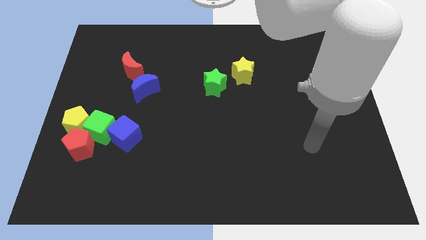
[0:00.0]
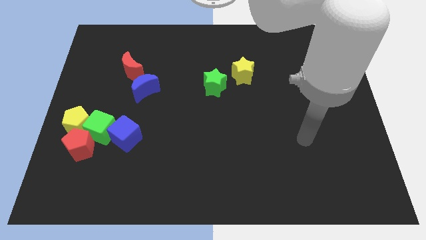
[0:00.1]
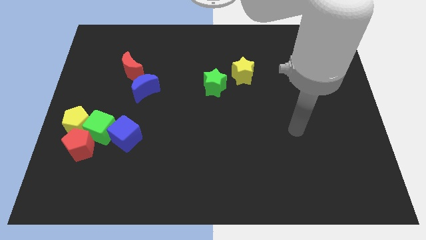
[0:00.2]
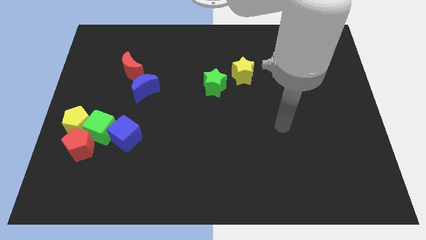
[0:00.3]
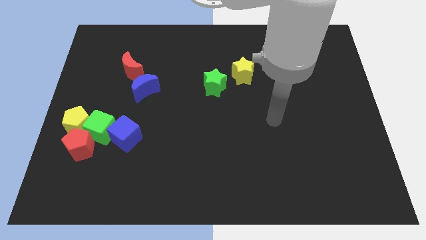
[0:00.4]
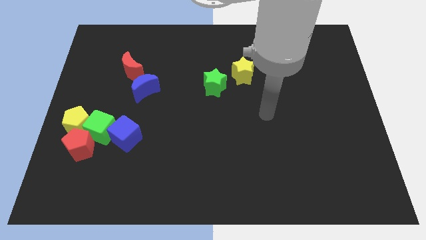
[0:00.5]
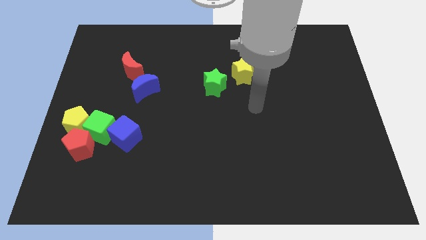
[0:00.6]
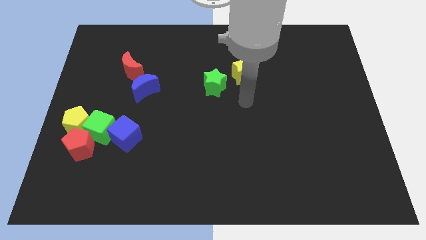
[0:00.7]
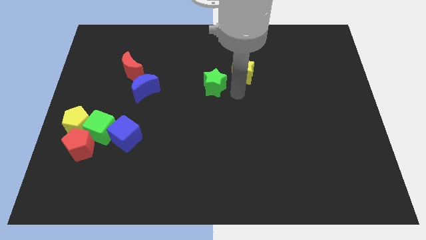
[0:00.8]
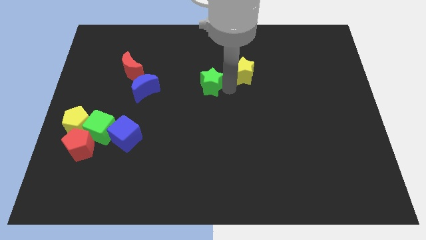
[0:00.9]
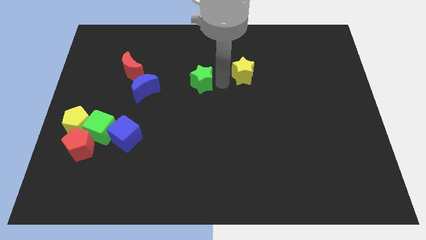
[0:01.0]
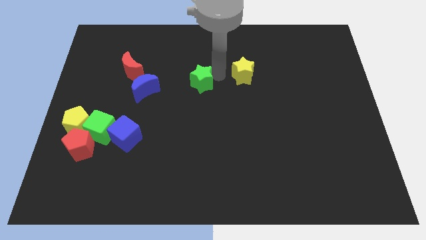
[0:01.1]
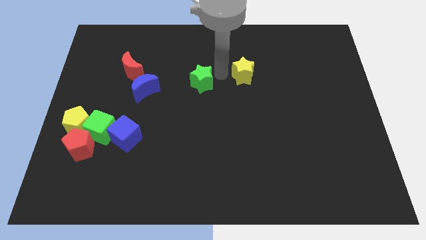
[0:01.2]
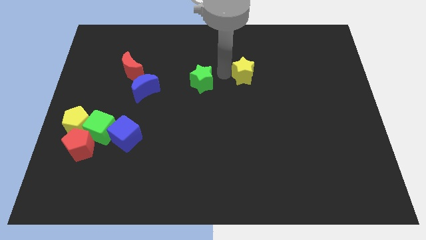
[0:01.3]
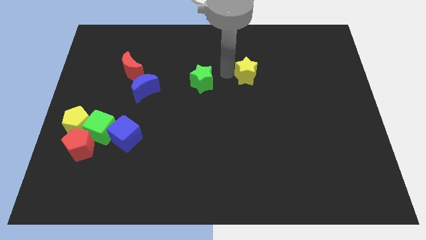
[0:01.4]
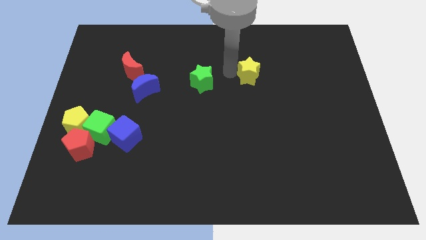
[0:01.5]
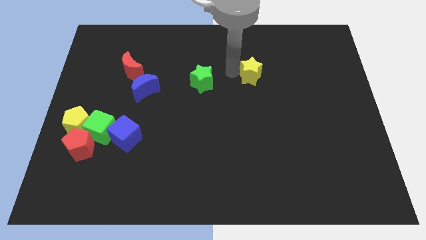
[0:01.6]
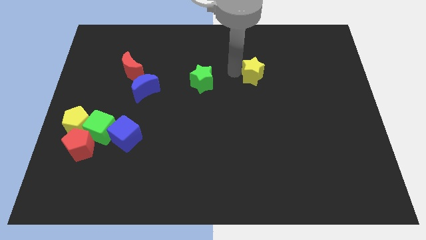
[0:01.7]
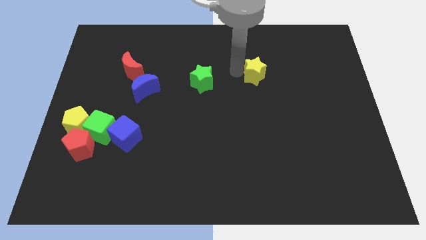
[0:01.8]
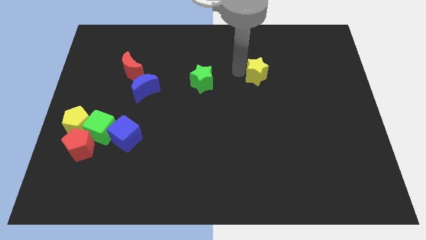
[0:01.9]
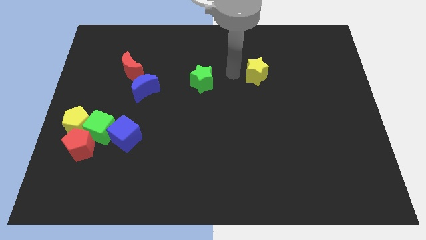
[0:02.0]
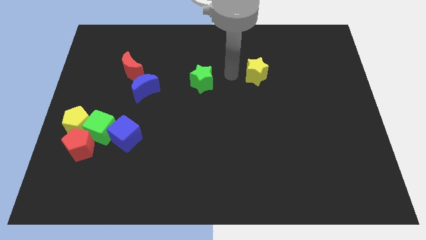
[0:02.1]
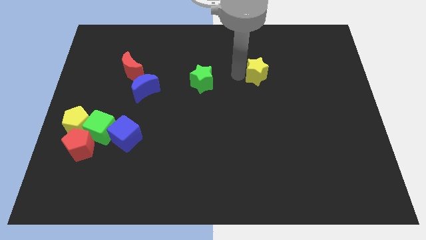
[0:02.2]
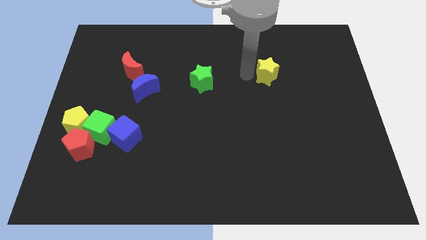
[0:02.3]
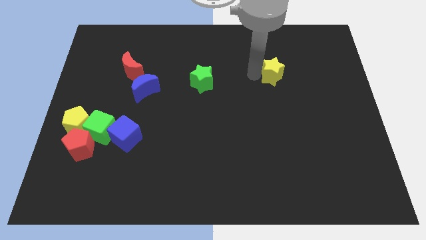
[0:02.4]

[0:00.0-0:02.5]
push the yellow star slightly to the right

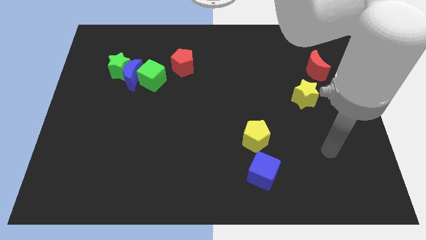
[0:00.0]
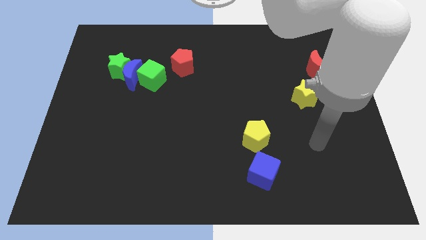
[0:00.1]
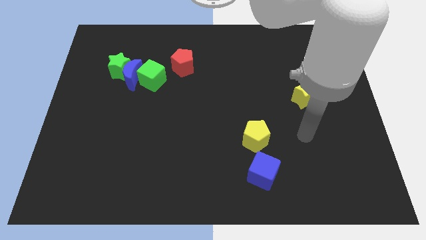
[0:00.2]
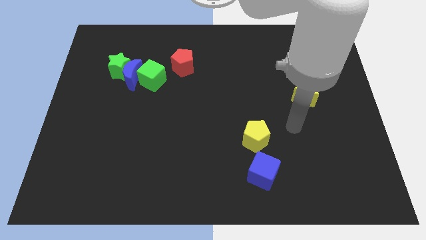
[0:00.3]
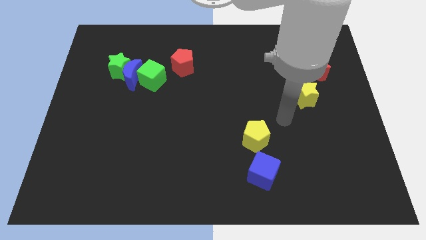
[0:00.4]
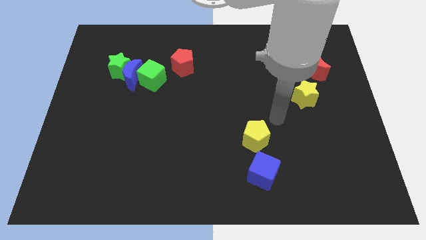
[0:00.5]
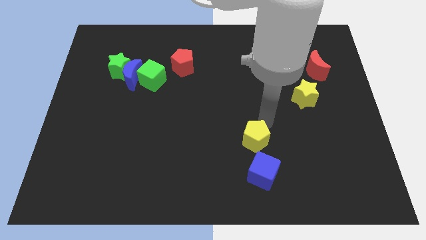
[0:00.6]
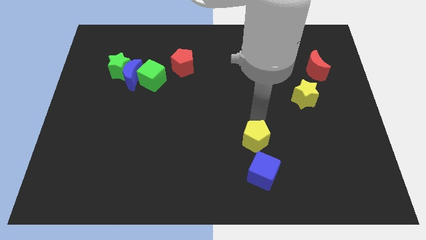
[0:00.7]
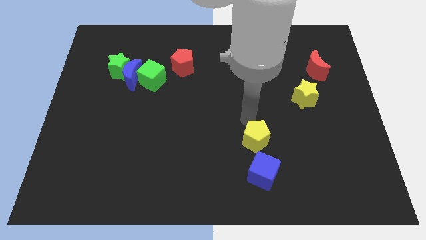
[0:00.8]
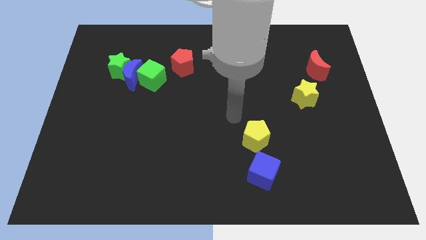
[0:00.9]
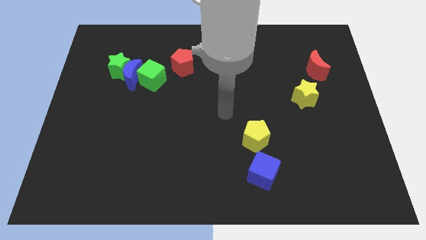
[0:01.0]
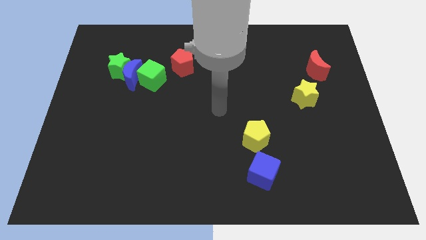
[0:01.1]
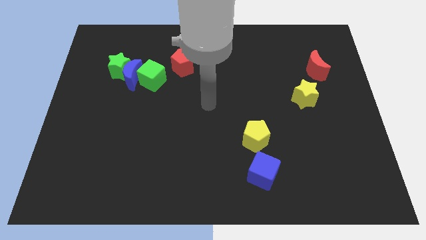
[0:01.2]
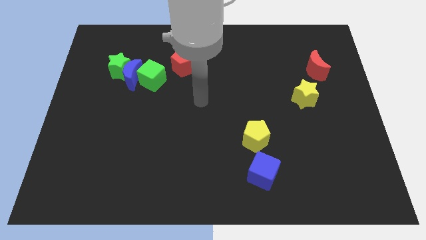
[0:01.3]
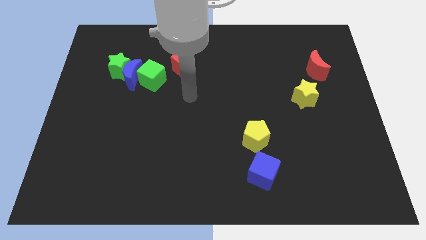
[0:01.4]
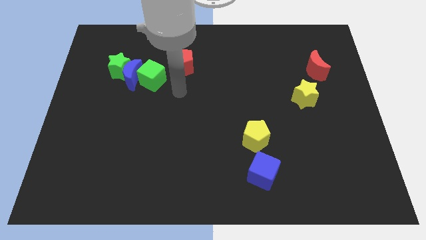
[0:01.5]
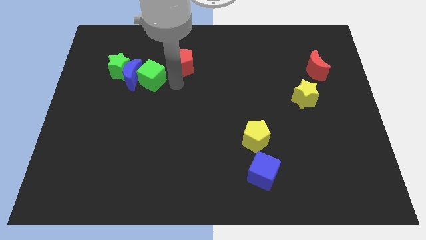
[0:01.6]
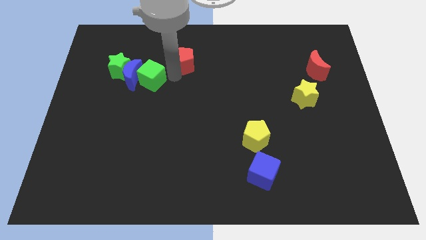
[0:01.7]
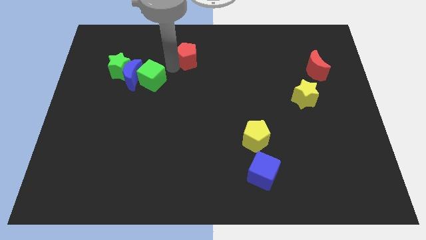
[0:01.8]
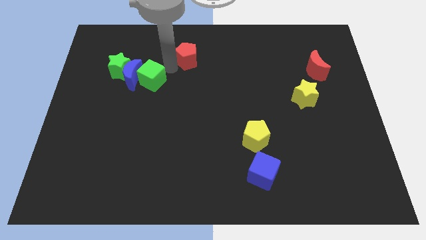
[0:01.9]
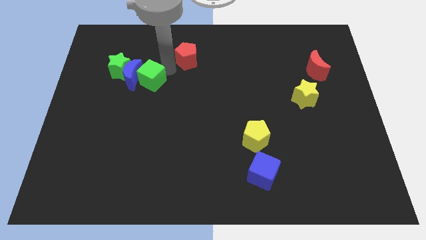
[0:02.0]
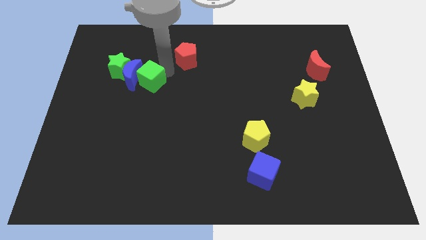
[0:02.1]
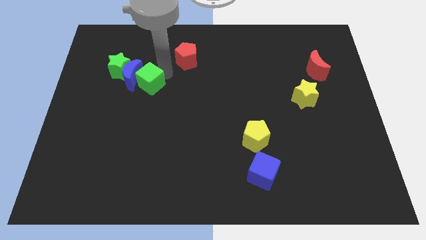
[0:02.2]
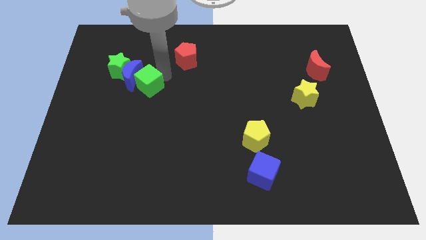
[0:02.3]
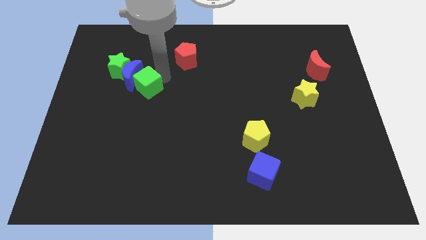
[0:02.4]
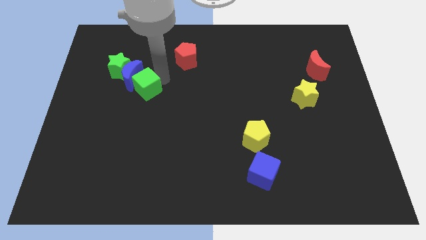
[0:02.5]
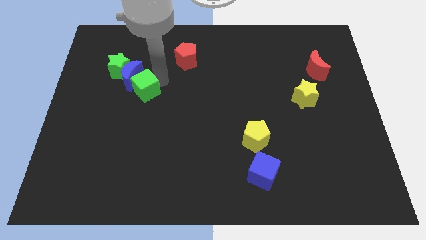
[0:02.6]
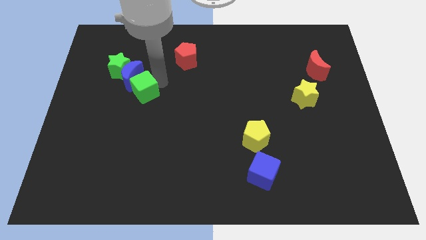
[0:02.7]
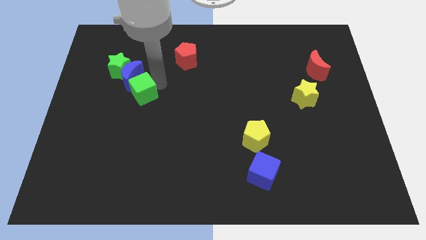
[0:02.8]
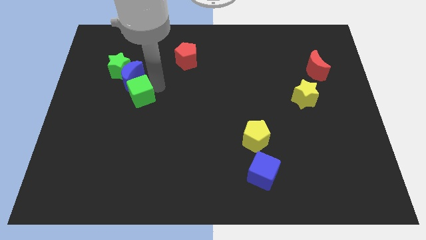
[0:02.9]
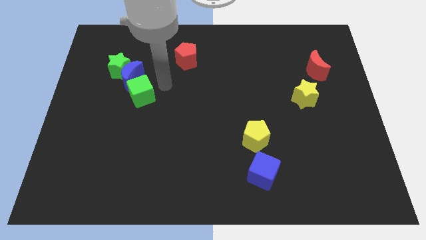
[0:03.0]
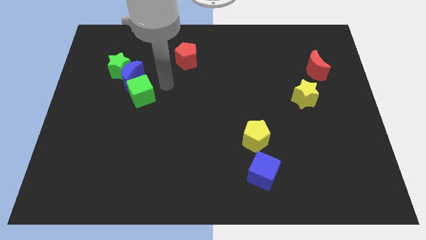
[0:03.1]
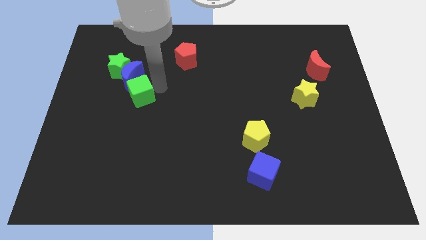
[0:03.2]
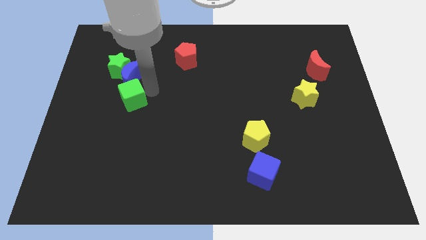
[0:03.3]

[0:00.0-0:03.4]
slightly move the green cube diagonally downwards and to the left

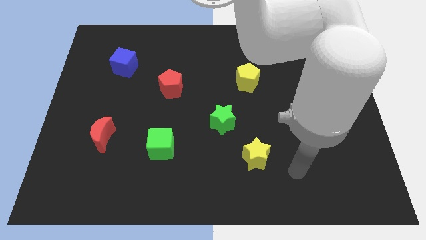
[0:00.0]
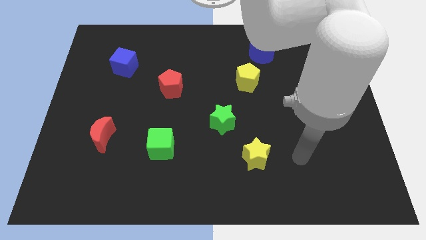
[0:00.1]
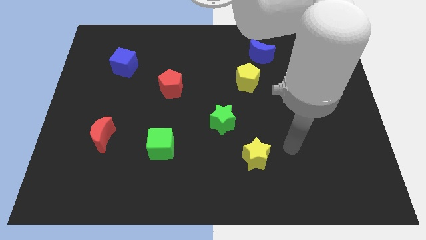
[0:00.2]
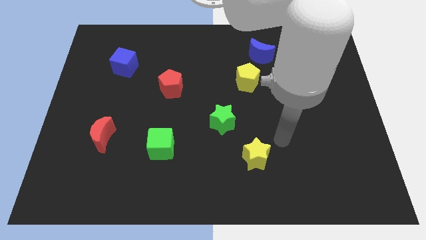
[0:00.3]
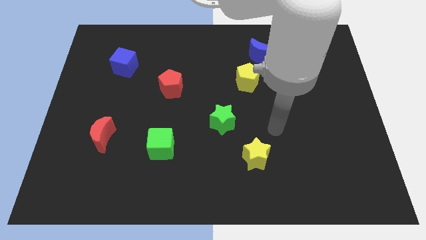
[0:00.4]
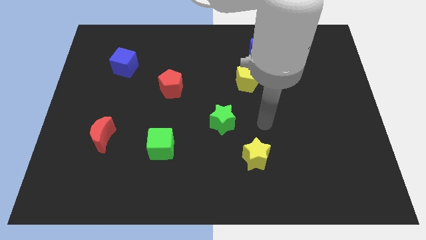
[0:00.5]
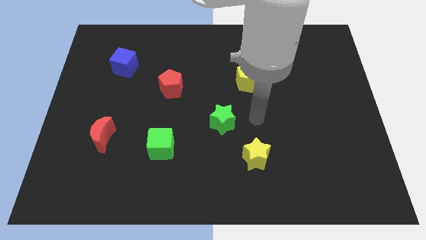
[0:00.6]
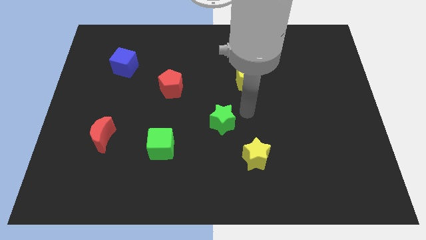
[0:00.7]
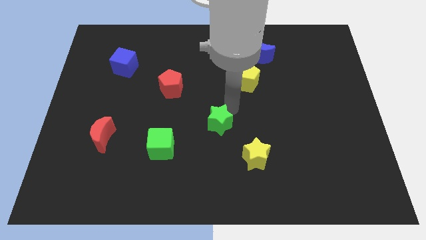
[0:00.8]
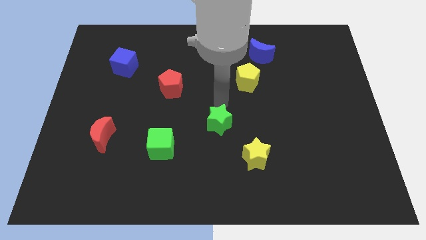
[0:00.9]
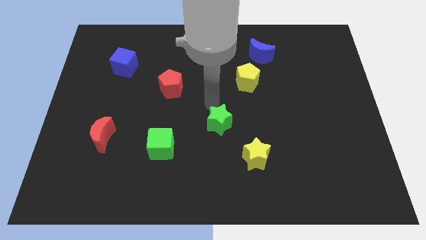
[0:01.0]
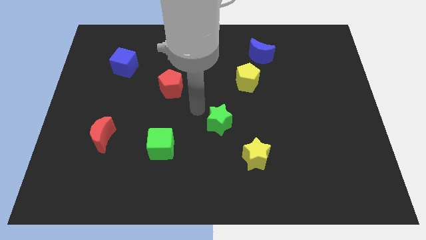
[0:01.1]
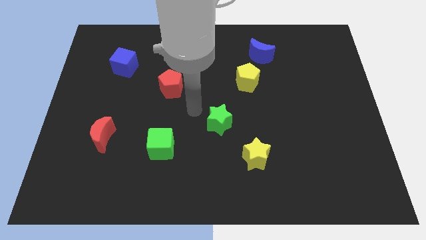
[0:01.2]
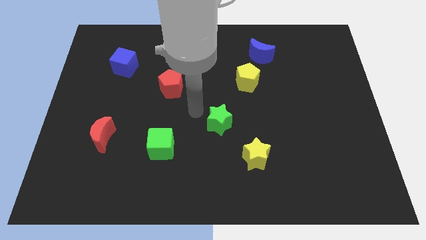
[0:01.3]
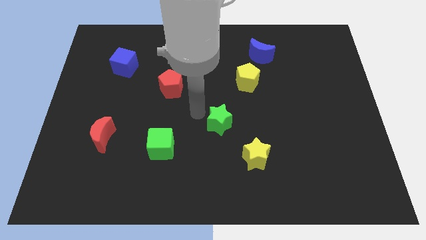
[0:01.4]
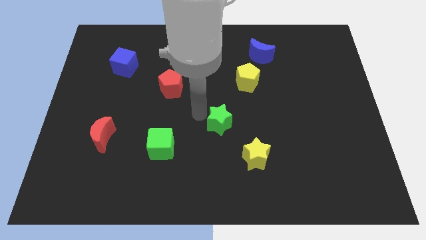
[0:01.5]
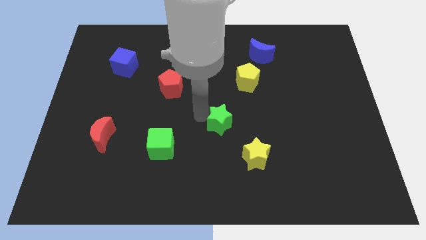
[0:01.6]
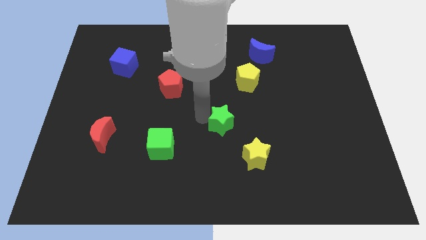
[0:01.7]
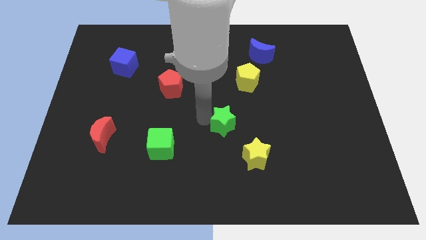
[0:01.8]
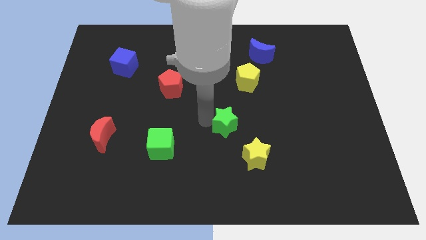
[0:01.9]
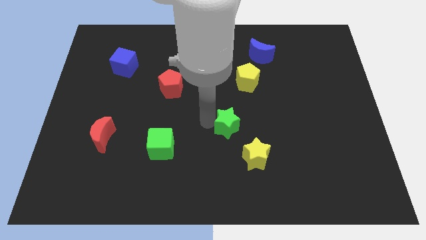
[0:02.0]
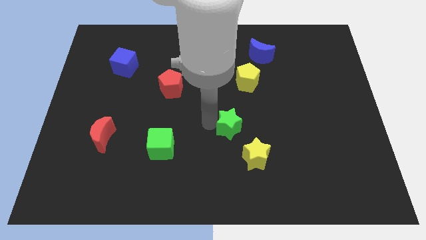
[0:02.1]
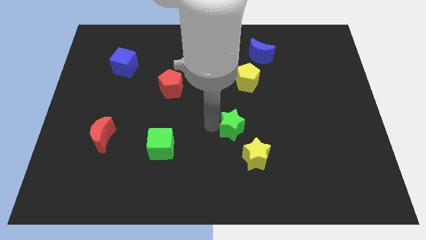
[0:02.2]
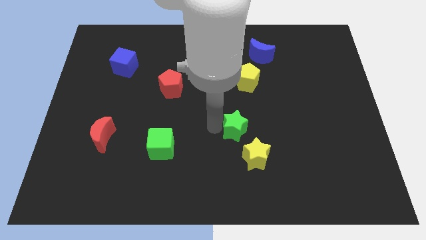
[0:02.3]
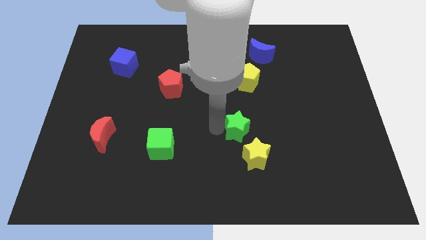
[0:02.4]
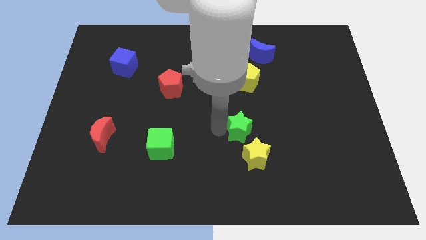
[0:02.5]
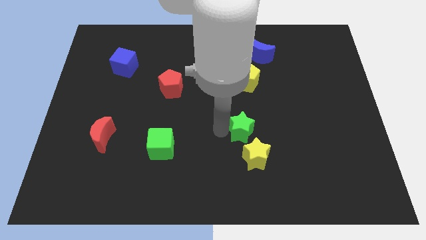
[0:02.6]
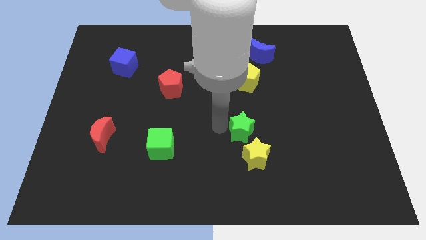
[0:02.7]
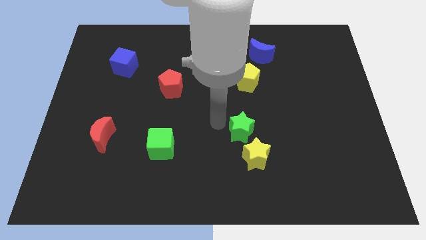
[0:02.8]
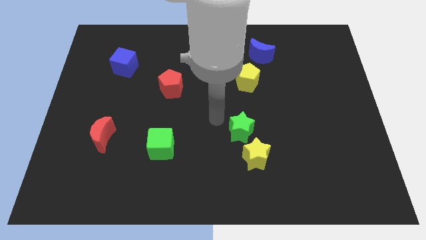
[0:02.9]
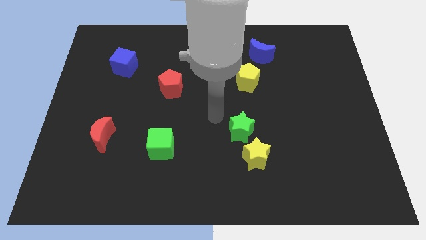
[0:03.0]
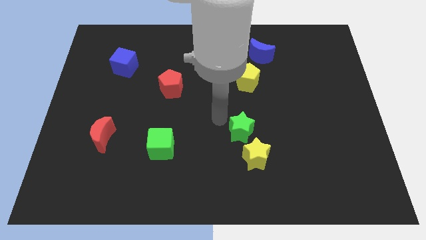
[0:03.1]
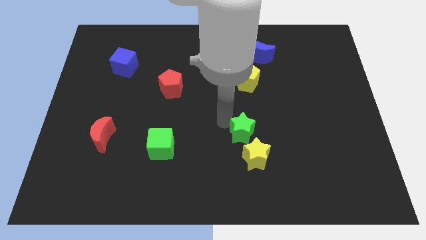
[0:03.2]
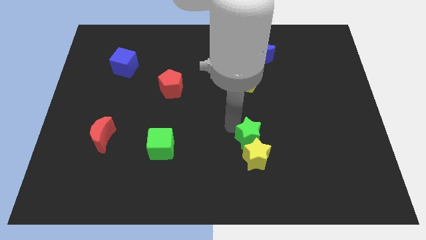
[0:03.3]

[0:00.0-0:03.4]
push the green star diagonally down and to the right a little
